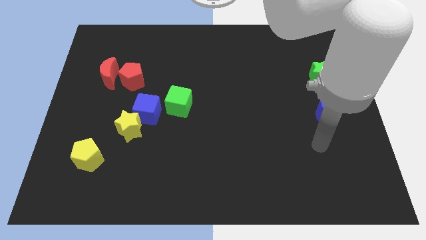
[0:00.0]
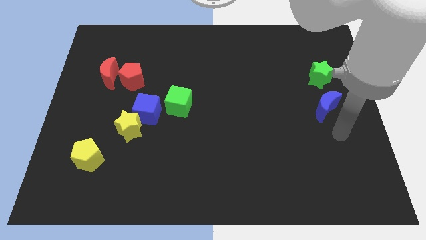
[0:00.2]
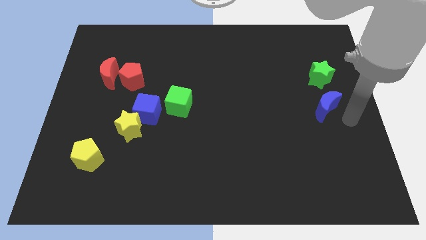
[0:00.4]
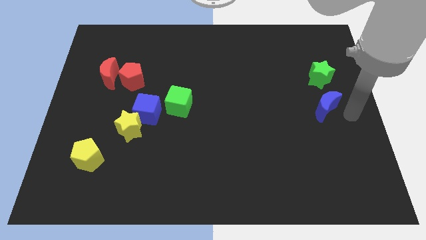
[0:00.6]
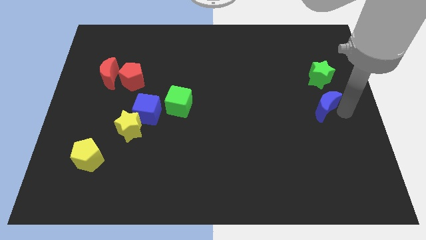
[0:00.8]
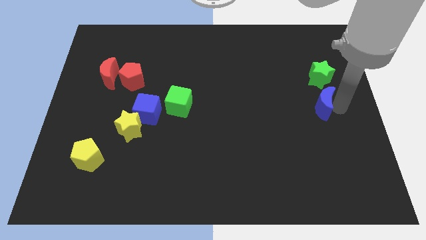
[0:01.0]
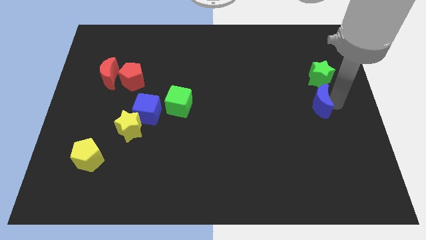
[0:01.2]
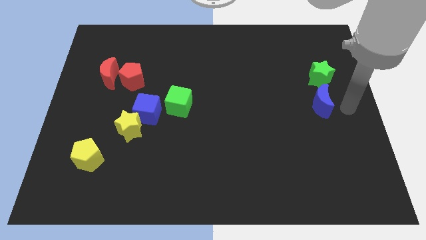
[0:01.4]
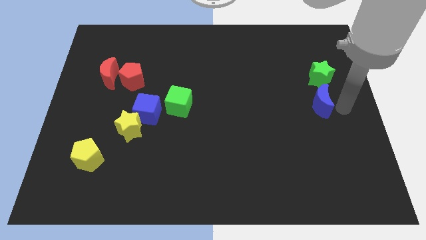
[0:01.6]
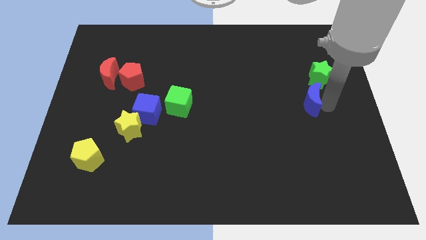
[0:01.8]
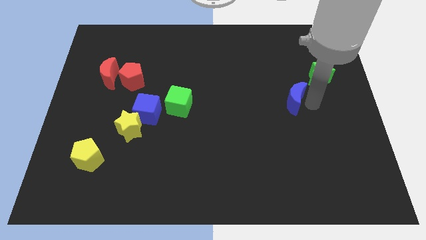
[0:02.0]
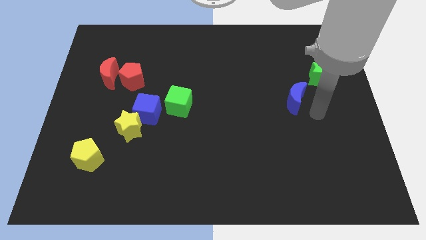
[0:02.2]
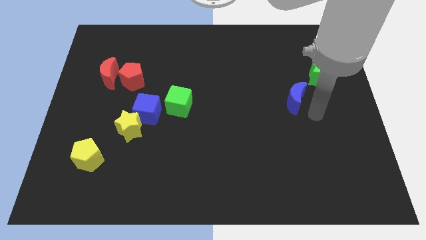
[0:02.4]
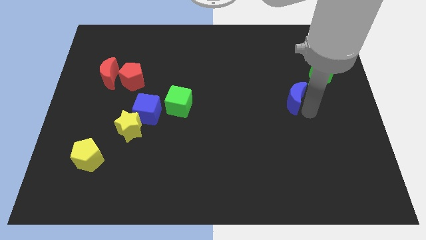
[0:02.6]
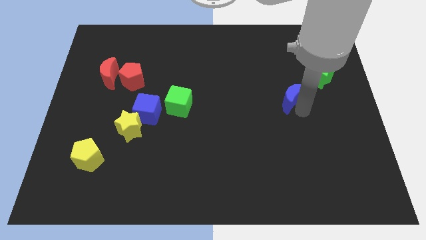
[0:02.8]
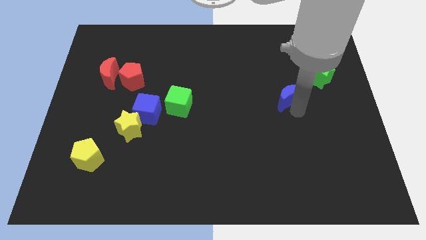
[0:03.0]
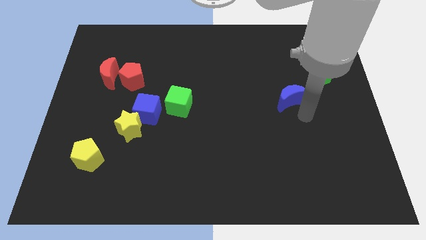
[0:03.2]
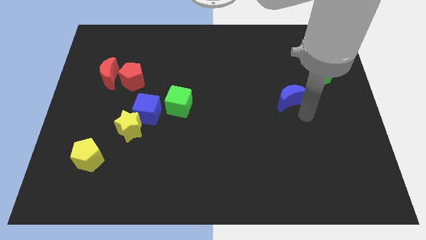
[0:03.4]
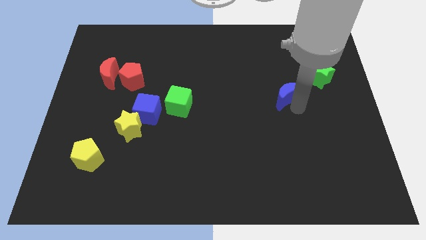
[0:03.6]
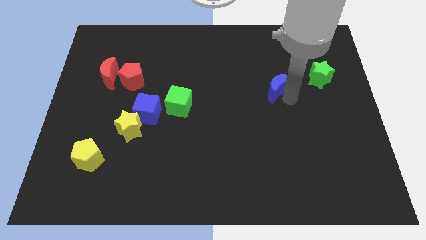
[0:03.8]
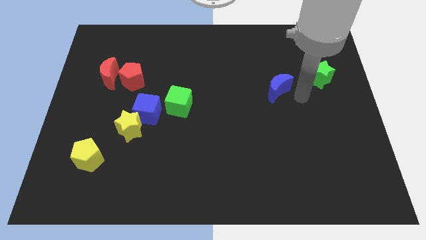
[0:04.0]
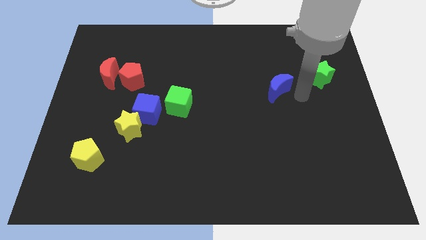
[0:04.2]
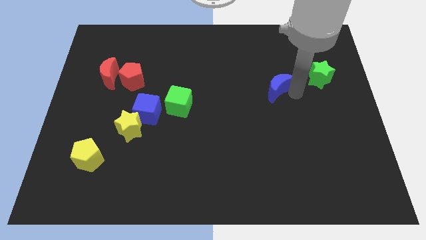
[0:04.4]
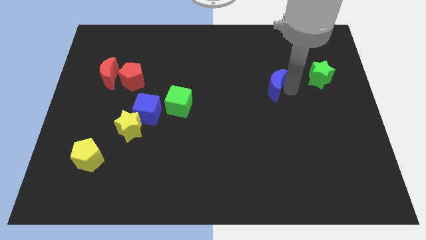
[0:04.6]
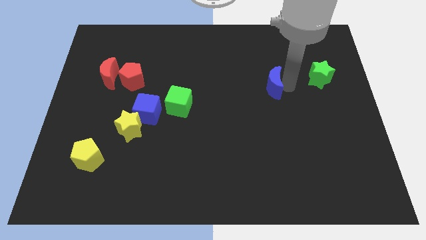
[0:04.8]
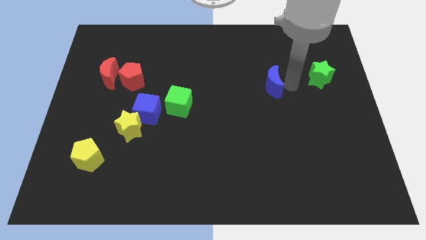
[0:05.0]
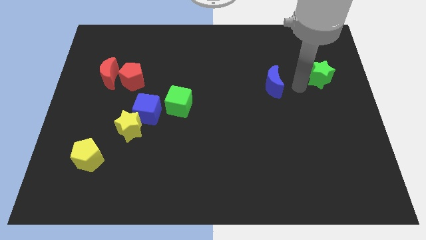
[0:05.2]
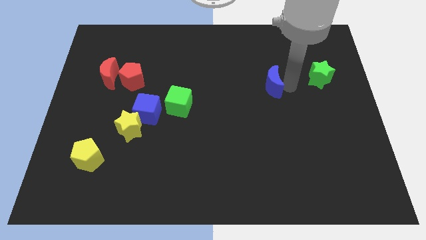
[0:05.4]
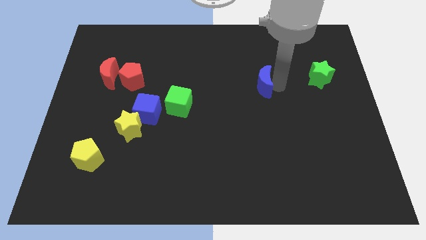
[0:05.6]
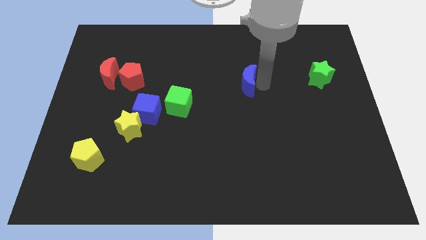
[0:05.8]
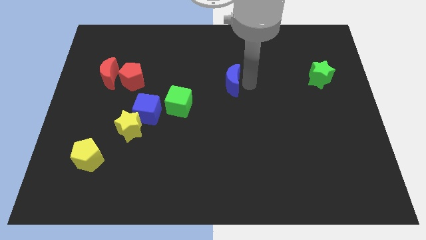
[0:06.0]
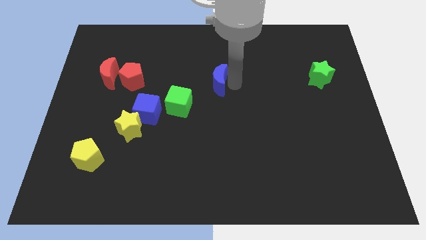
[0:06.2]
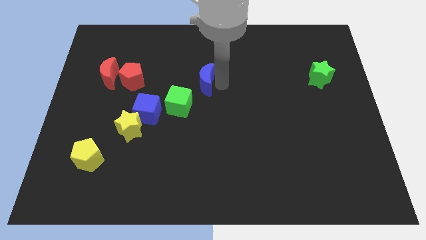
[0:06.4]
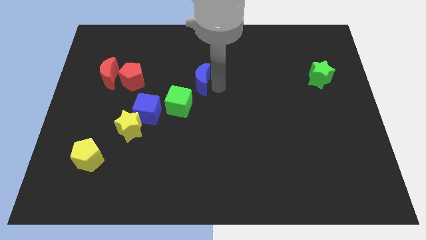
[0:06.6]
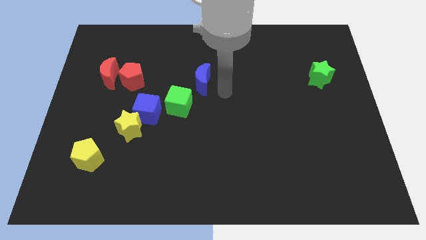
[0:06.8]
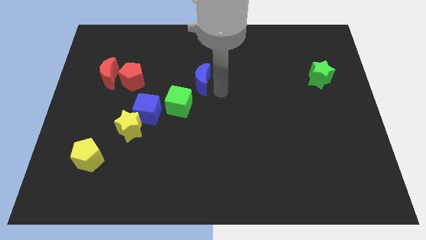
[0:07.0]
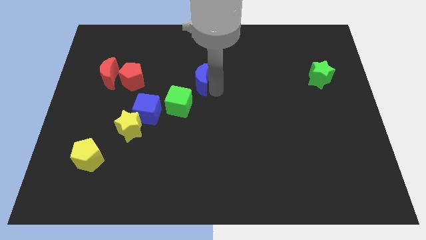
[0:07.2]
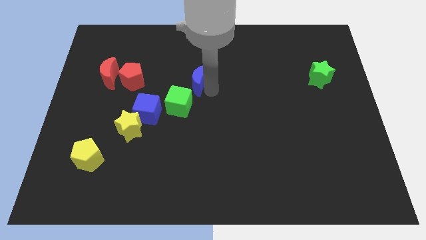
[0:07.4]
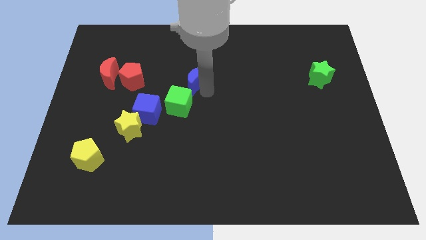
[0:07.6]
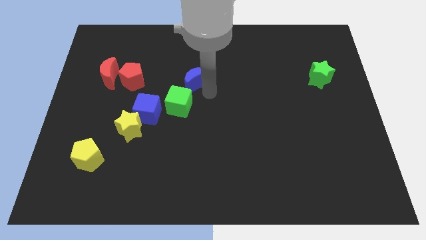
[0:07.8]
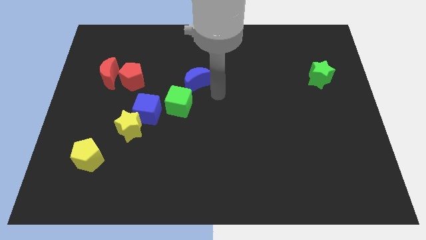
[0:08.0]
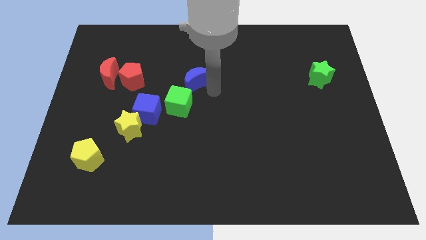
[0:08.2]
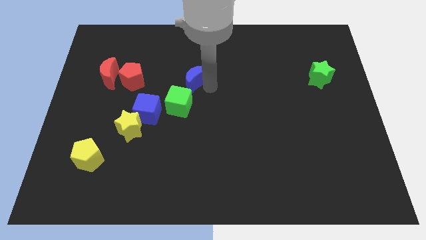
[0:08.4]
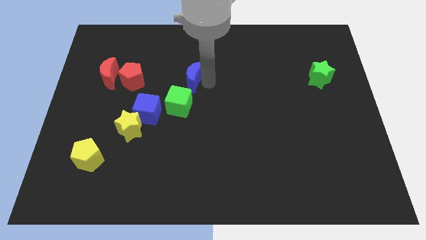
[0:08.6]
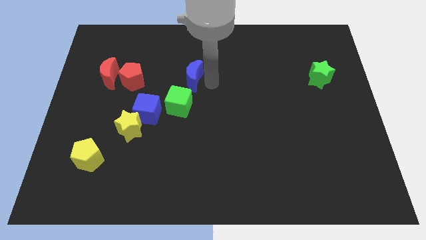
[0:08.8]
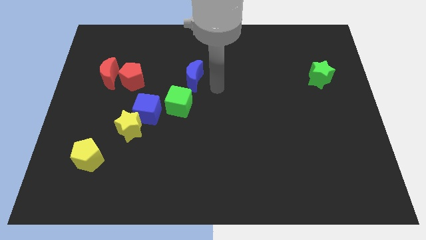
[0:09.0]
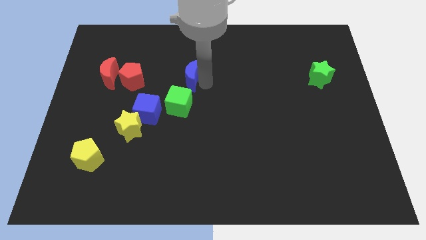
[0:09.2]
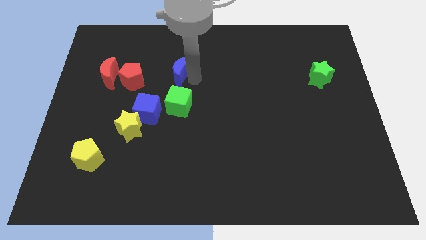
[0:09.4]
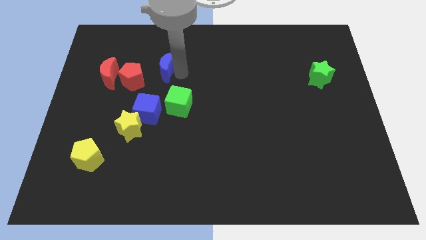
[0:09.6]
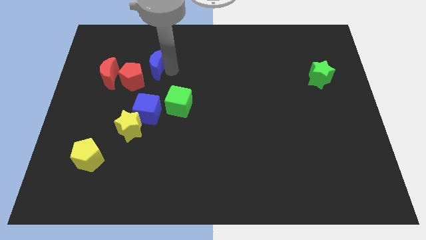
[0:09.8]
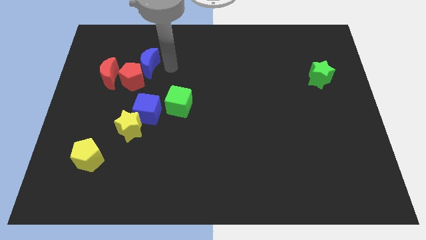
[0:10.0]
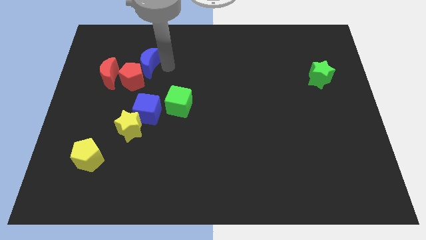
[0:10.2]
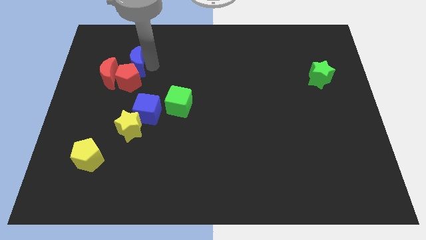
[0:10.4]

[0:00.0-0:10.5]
put the blue moon to the top left of the red pentagon

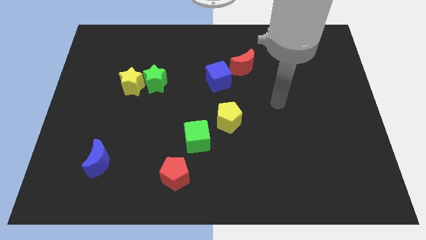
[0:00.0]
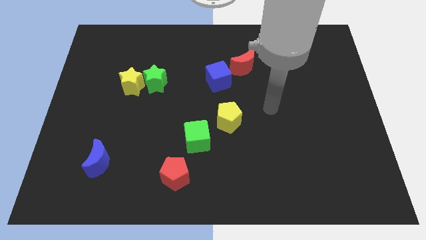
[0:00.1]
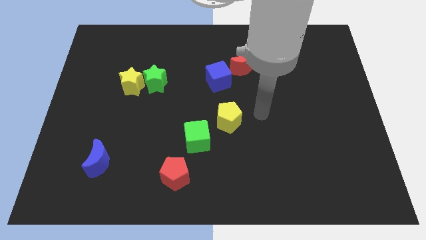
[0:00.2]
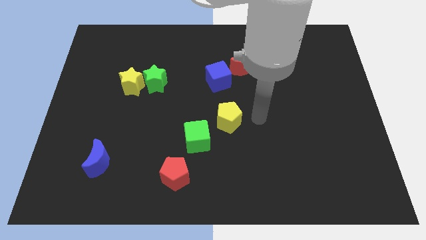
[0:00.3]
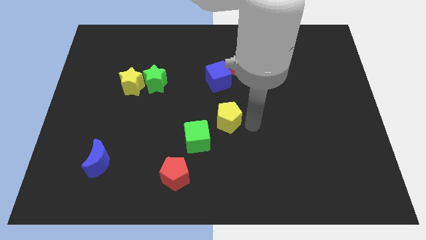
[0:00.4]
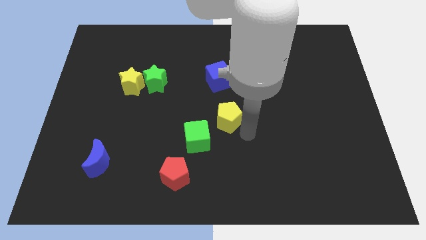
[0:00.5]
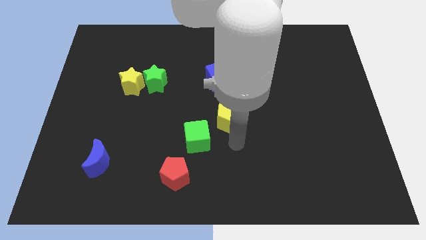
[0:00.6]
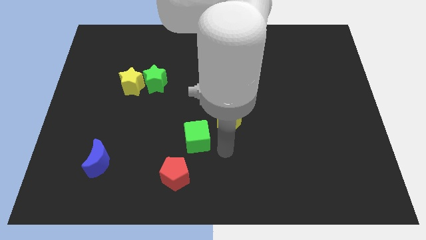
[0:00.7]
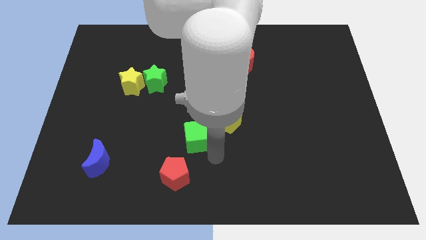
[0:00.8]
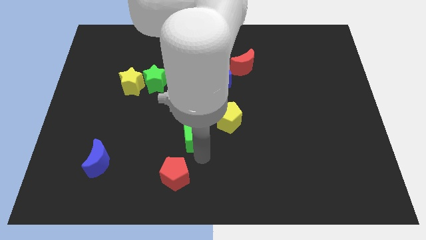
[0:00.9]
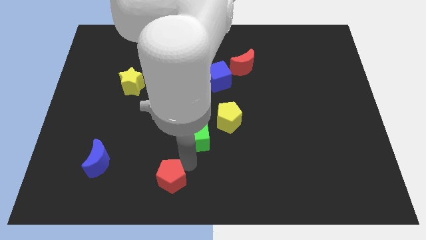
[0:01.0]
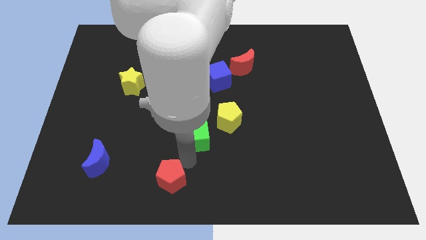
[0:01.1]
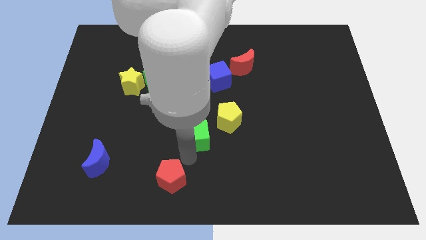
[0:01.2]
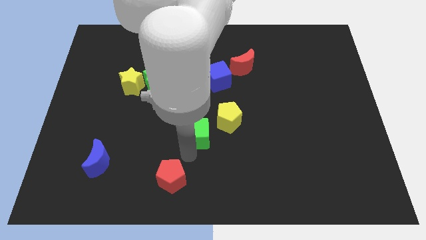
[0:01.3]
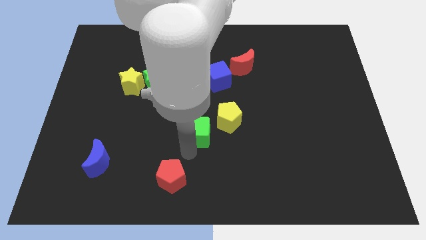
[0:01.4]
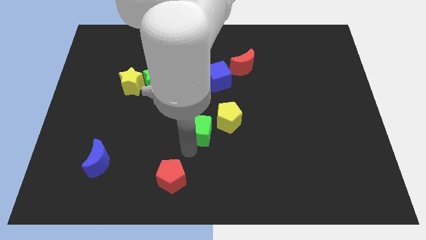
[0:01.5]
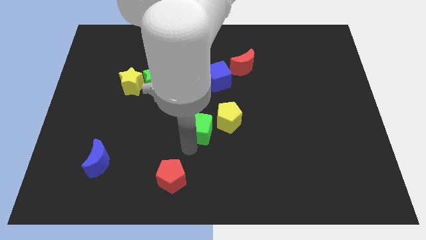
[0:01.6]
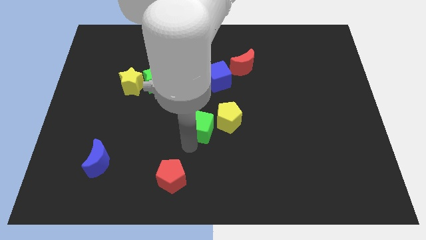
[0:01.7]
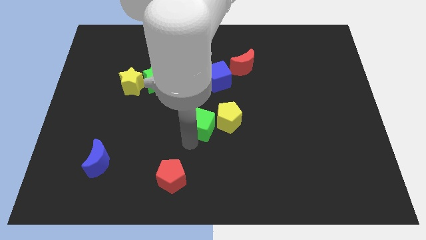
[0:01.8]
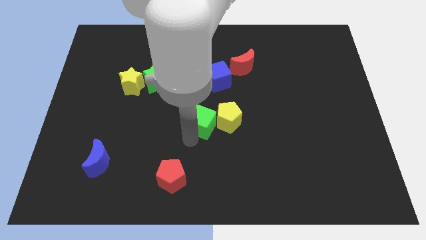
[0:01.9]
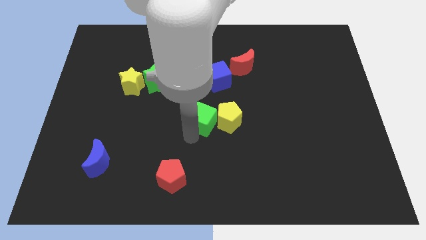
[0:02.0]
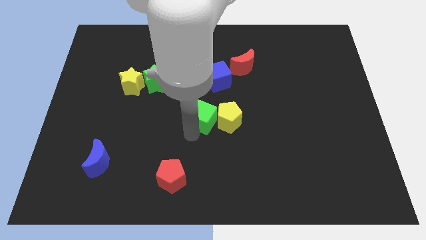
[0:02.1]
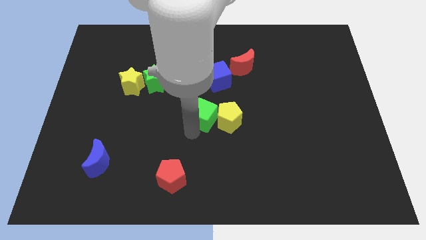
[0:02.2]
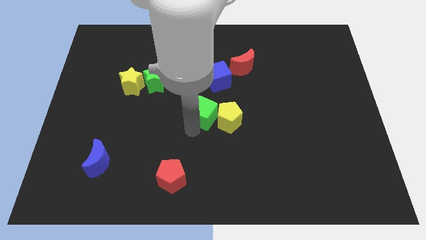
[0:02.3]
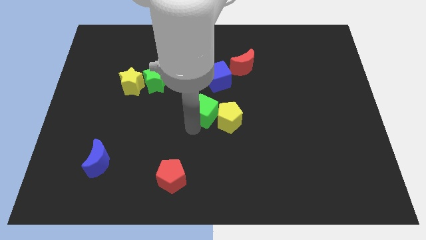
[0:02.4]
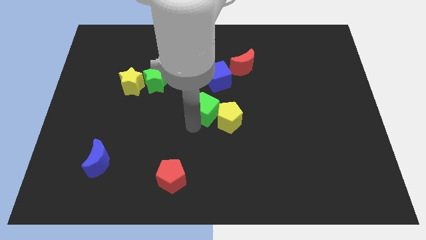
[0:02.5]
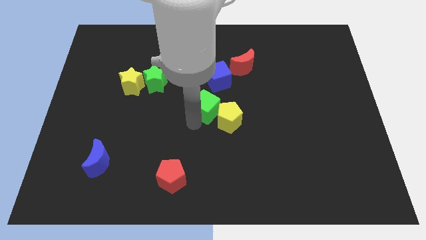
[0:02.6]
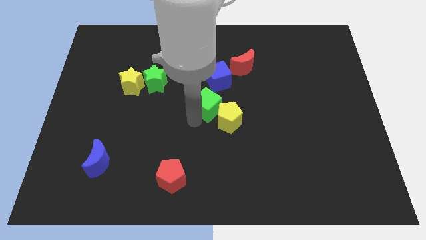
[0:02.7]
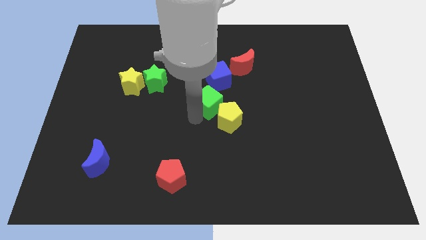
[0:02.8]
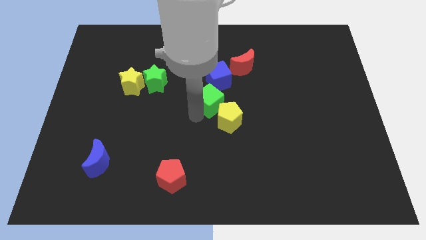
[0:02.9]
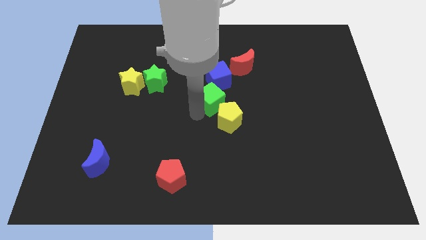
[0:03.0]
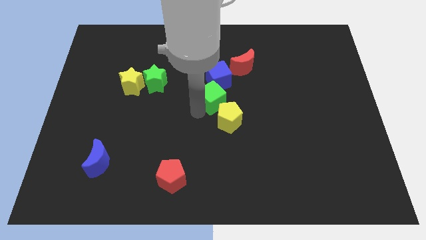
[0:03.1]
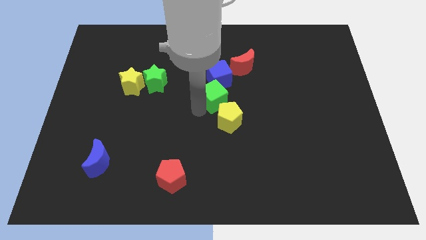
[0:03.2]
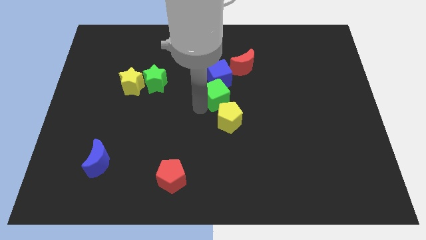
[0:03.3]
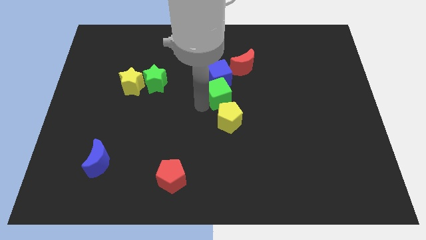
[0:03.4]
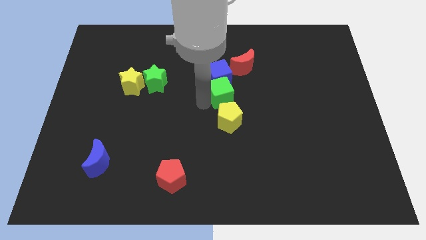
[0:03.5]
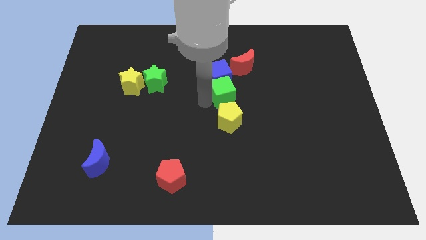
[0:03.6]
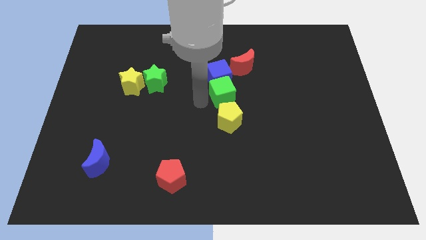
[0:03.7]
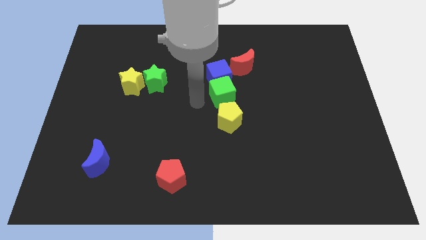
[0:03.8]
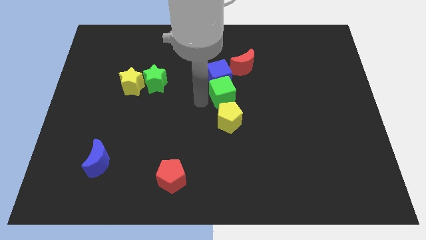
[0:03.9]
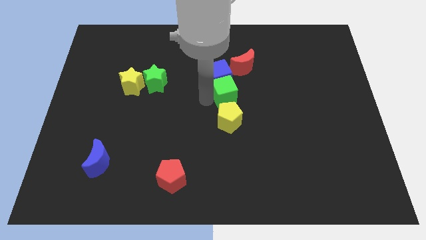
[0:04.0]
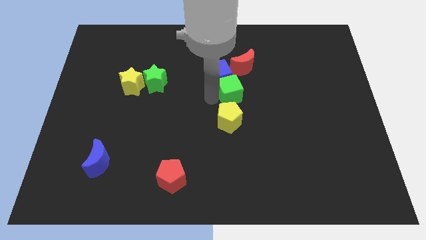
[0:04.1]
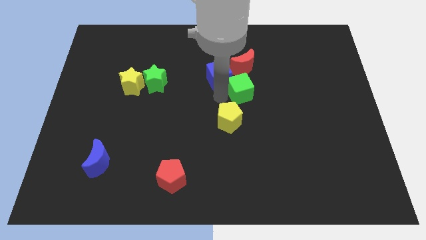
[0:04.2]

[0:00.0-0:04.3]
move the green cube just right of the blue cube
